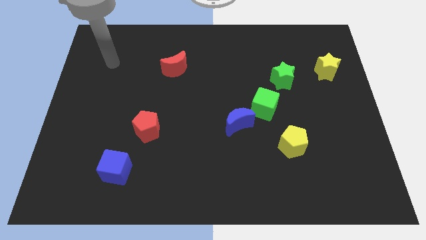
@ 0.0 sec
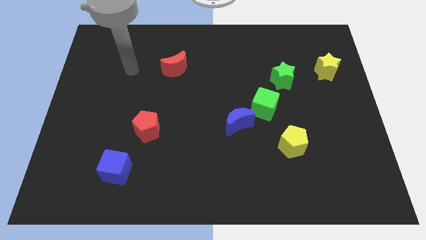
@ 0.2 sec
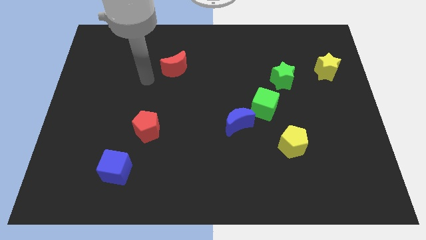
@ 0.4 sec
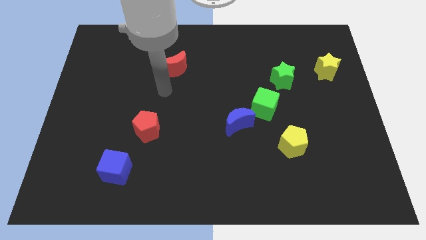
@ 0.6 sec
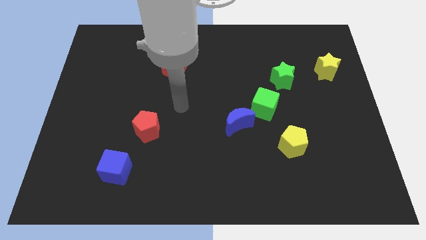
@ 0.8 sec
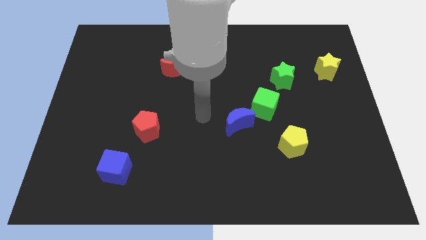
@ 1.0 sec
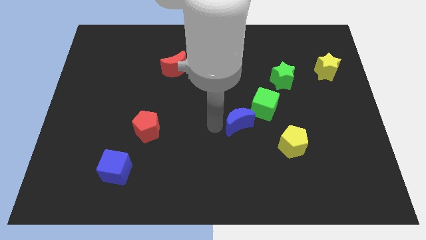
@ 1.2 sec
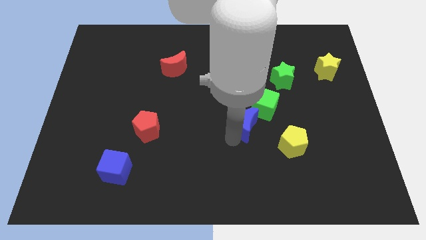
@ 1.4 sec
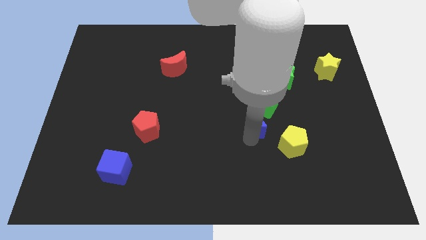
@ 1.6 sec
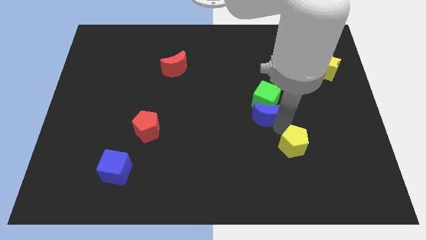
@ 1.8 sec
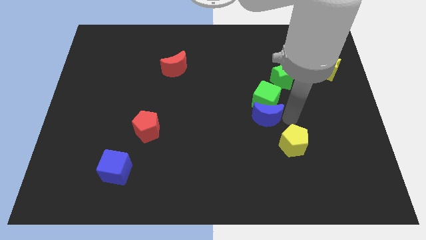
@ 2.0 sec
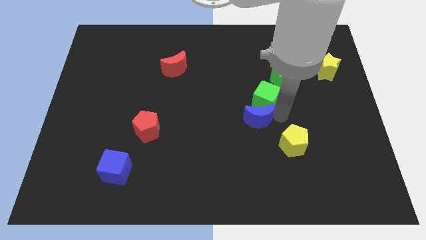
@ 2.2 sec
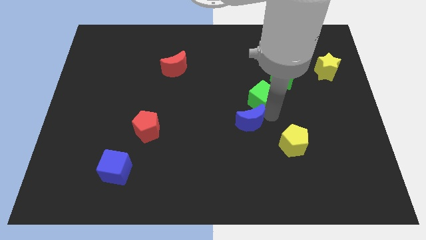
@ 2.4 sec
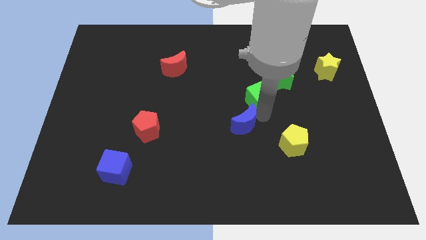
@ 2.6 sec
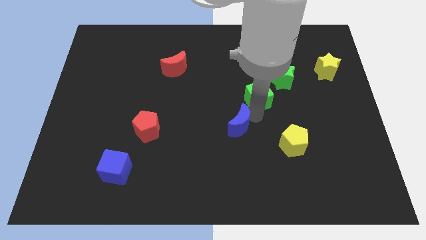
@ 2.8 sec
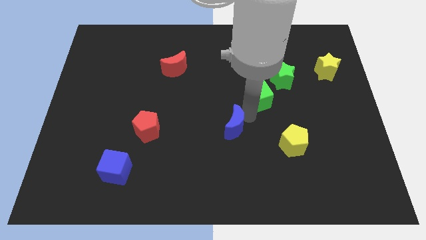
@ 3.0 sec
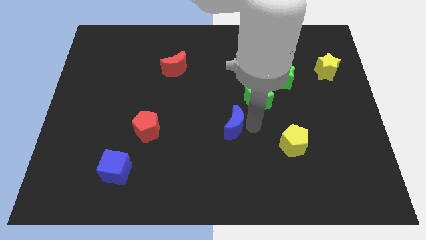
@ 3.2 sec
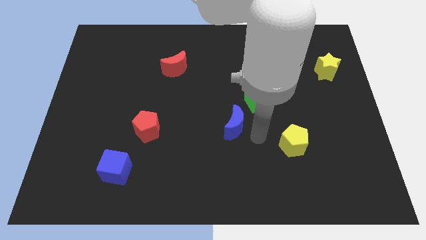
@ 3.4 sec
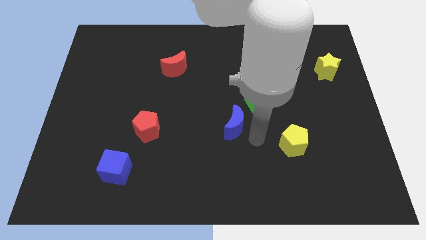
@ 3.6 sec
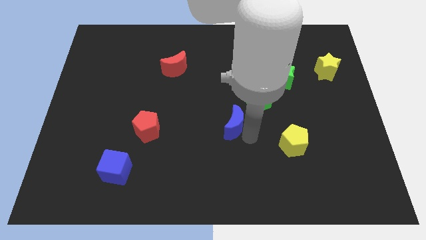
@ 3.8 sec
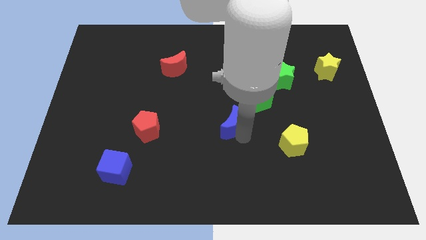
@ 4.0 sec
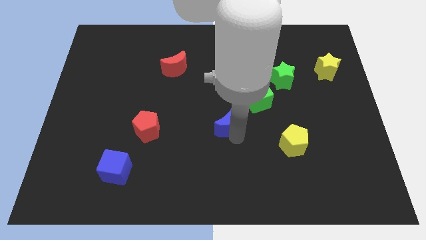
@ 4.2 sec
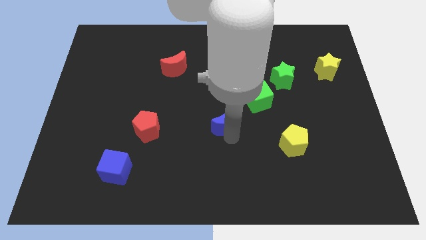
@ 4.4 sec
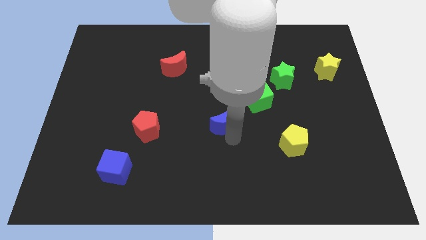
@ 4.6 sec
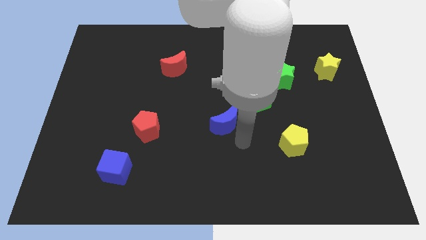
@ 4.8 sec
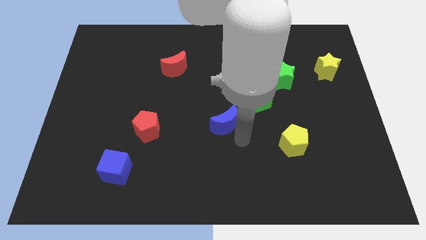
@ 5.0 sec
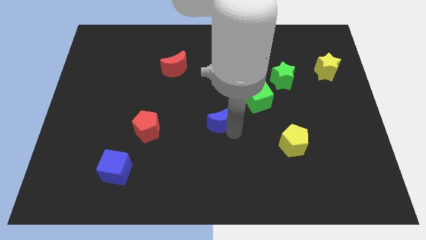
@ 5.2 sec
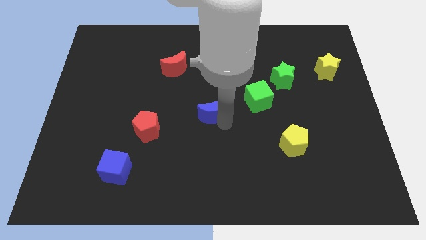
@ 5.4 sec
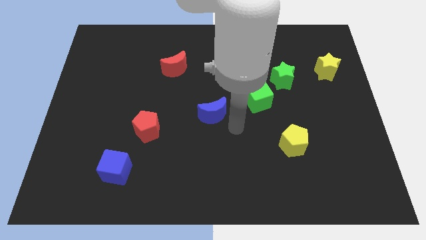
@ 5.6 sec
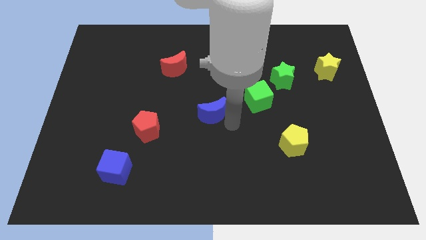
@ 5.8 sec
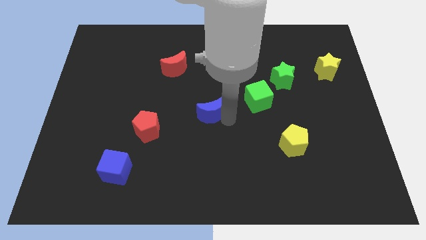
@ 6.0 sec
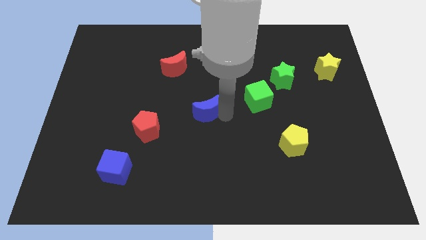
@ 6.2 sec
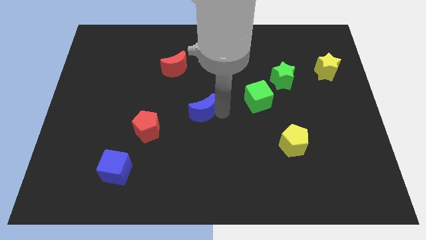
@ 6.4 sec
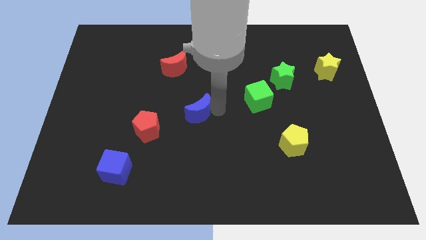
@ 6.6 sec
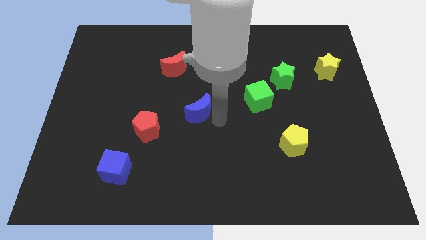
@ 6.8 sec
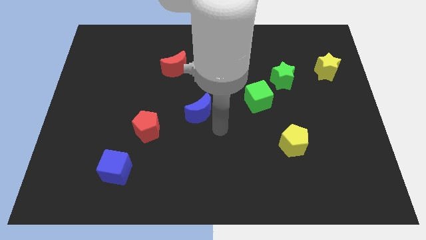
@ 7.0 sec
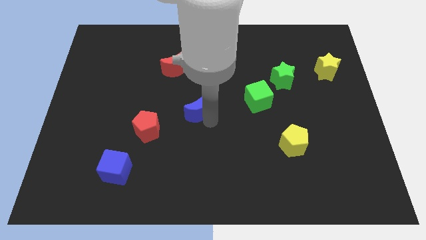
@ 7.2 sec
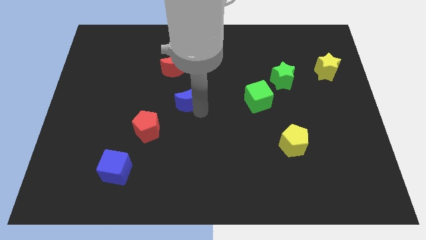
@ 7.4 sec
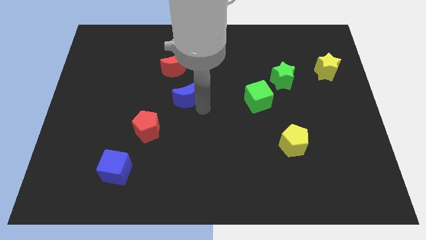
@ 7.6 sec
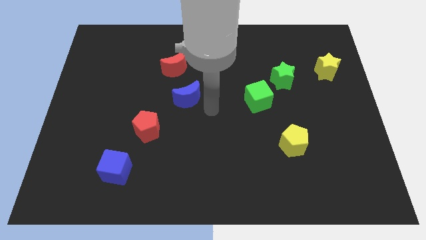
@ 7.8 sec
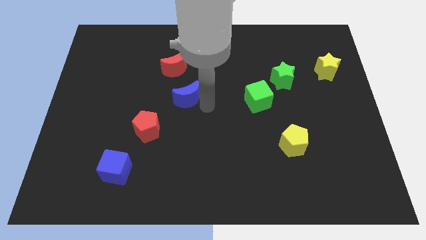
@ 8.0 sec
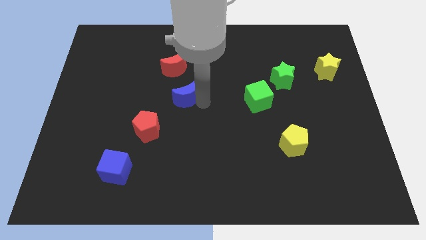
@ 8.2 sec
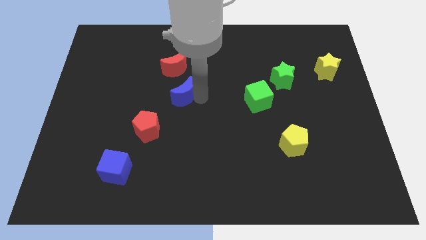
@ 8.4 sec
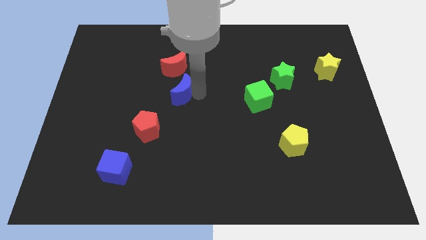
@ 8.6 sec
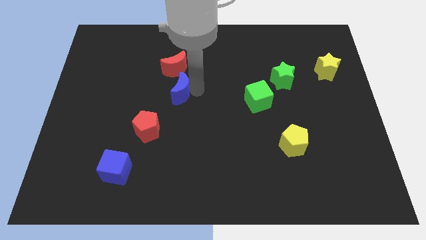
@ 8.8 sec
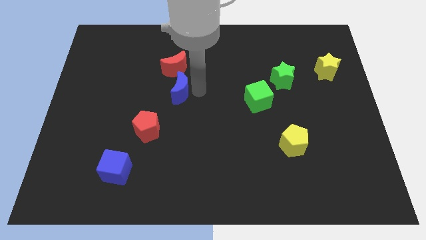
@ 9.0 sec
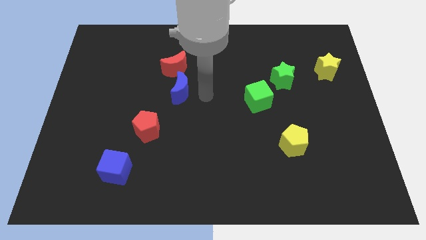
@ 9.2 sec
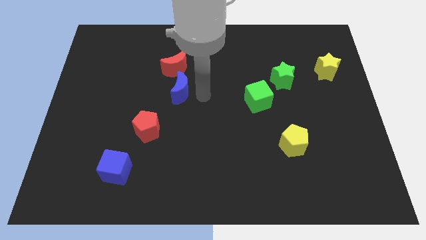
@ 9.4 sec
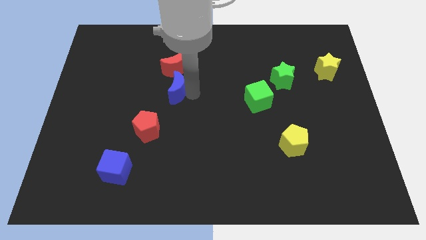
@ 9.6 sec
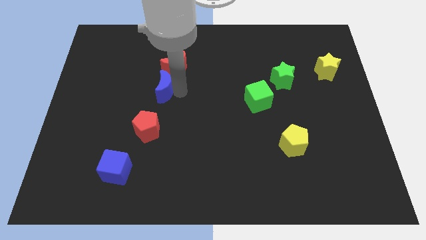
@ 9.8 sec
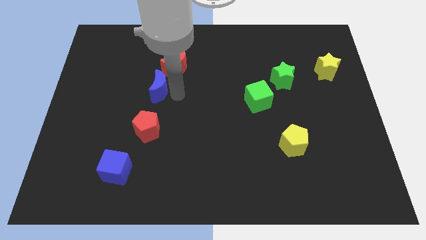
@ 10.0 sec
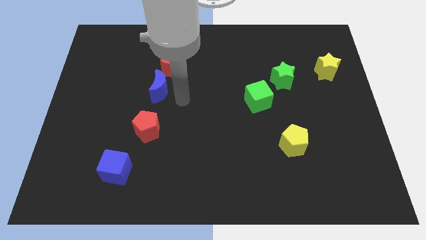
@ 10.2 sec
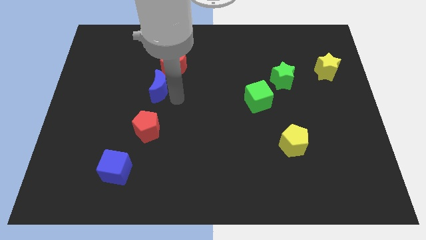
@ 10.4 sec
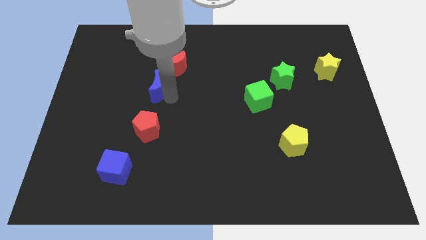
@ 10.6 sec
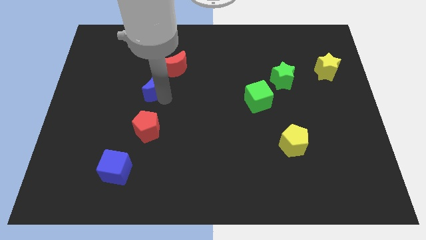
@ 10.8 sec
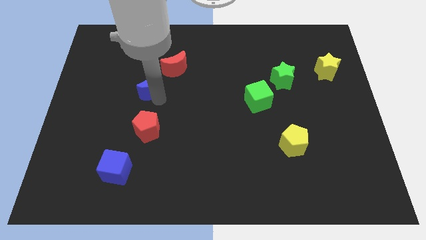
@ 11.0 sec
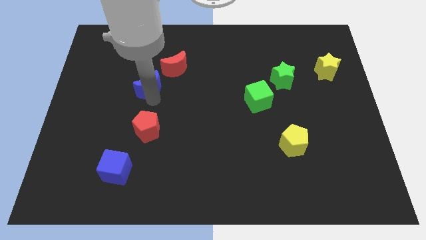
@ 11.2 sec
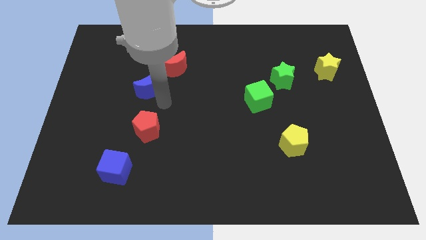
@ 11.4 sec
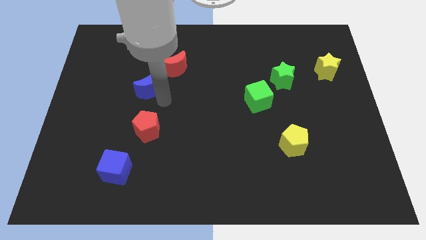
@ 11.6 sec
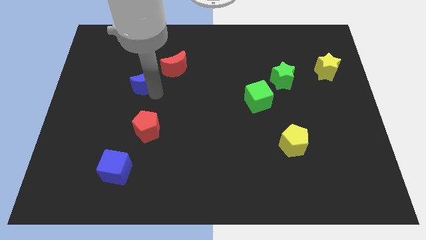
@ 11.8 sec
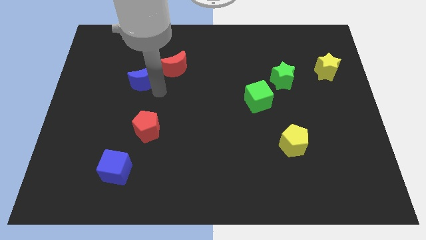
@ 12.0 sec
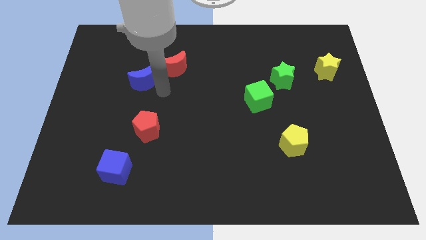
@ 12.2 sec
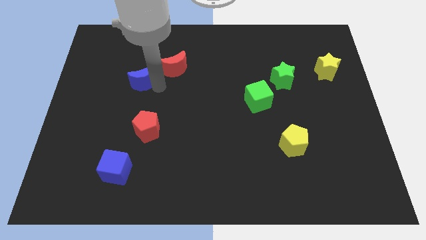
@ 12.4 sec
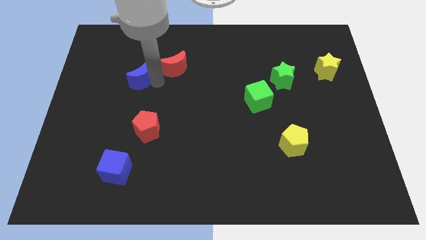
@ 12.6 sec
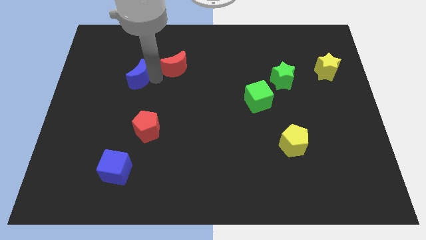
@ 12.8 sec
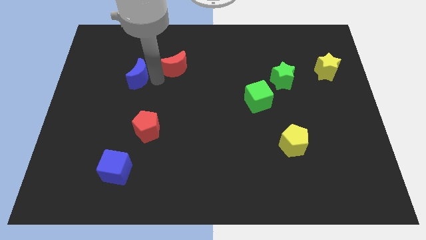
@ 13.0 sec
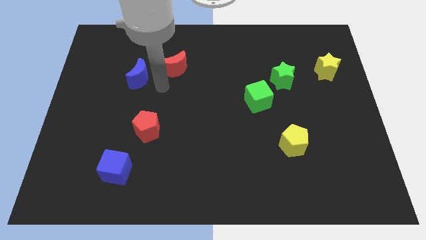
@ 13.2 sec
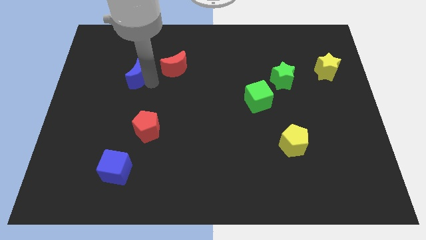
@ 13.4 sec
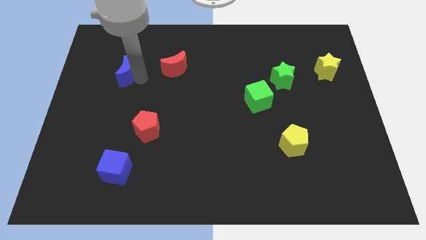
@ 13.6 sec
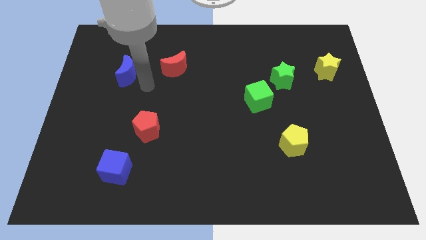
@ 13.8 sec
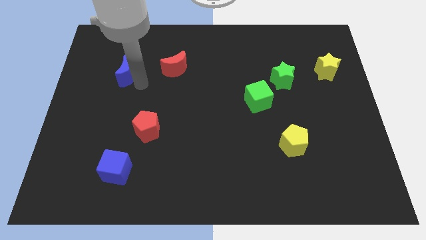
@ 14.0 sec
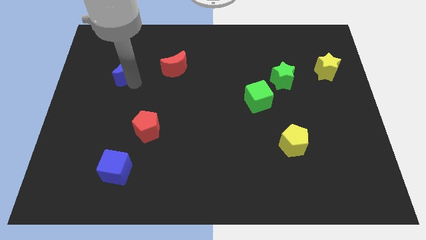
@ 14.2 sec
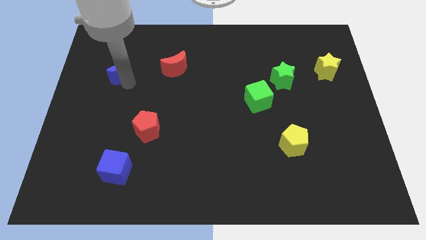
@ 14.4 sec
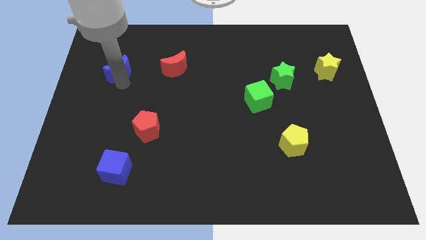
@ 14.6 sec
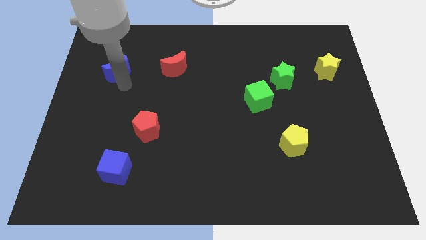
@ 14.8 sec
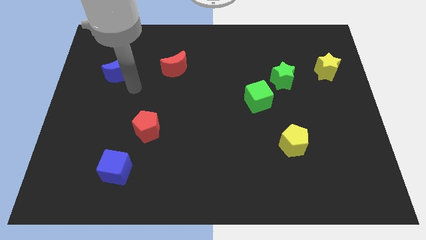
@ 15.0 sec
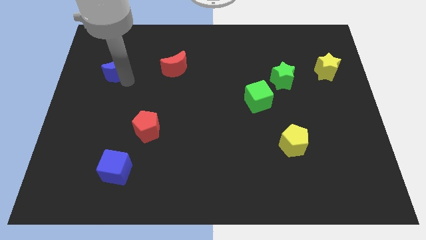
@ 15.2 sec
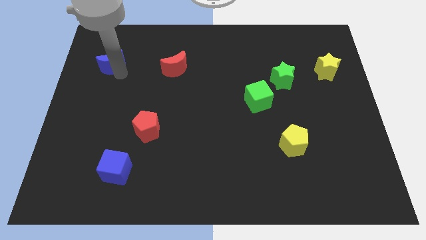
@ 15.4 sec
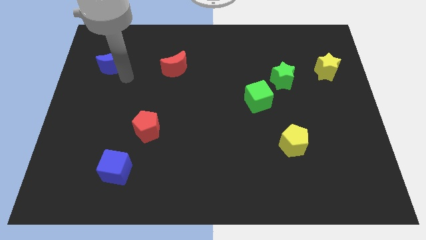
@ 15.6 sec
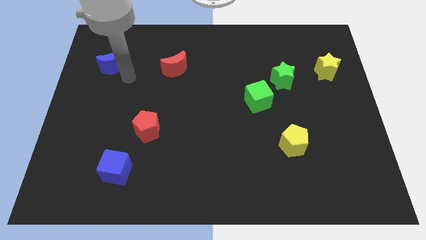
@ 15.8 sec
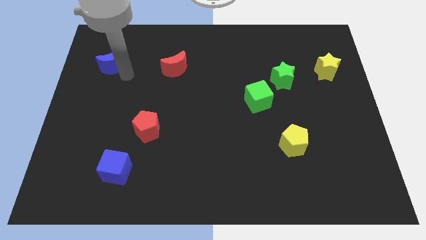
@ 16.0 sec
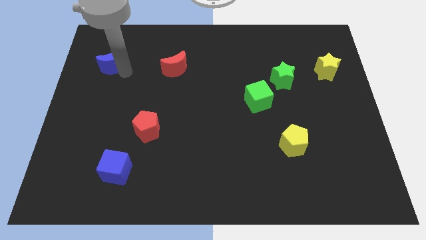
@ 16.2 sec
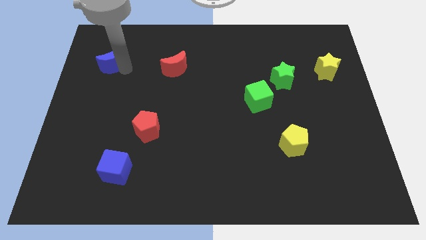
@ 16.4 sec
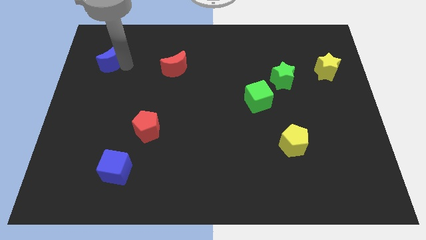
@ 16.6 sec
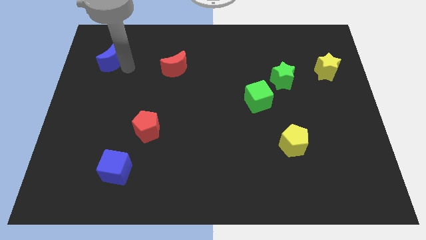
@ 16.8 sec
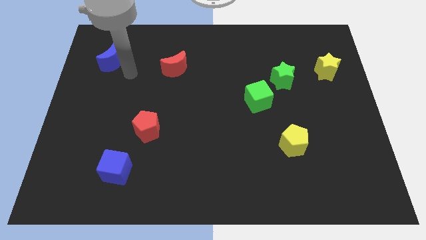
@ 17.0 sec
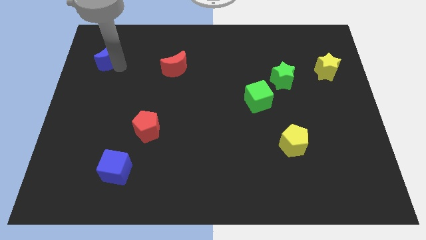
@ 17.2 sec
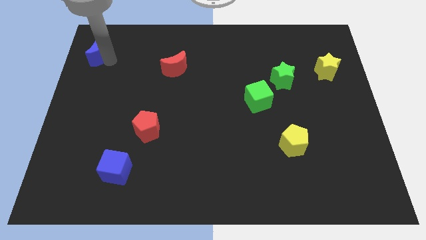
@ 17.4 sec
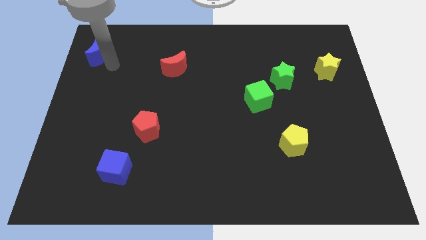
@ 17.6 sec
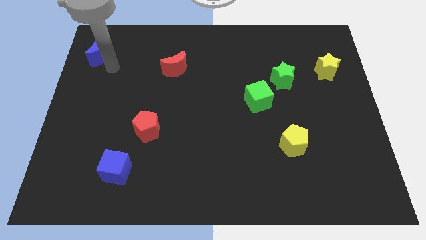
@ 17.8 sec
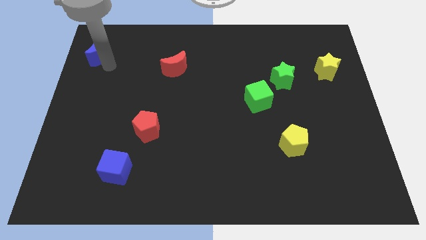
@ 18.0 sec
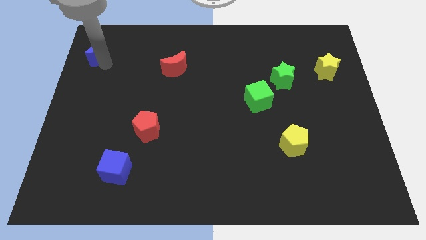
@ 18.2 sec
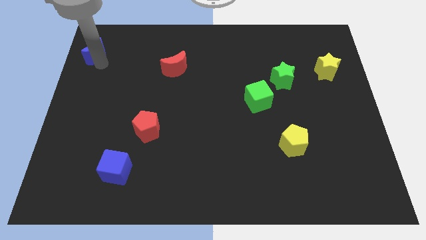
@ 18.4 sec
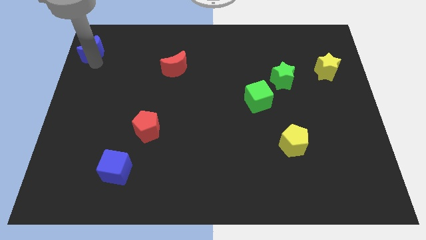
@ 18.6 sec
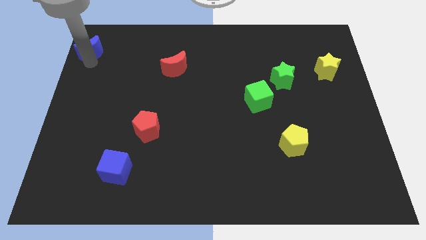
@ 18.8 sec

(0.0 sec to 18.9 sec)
put the blue moon to the top left
